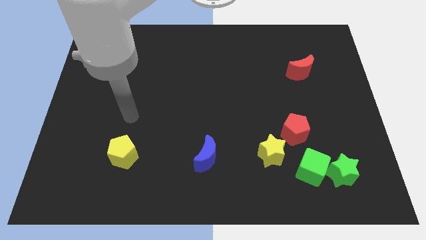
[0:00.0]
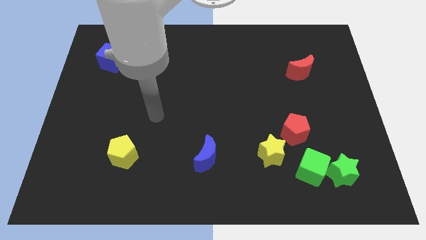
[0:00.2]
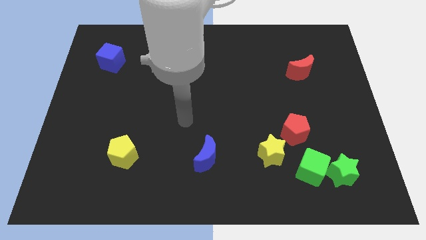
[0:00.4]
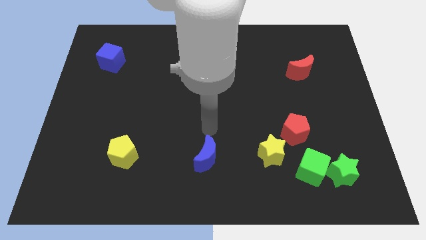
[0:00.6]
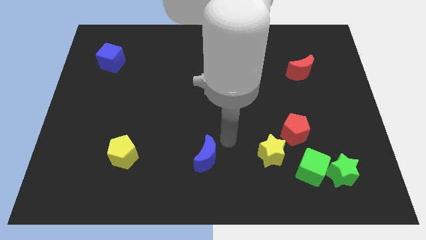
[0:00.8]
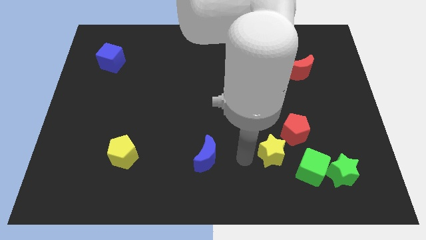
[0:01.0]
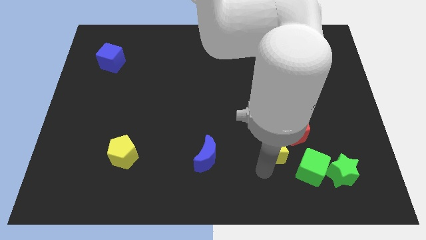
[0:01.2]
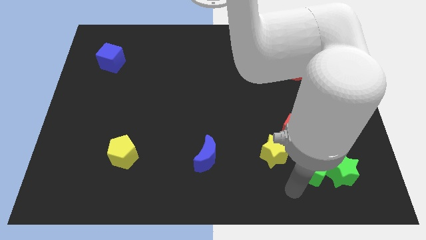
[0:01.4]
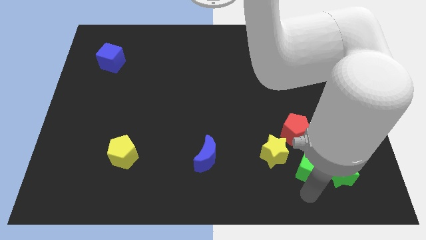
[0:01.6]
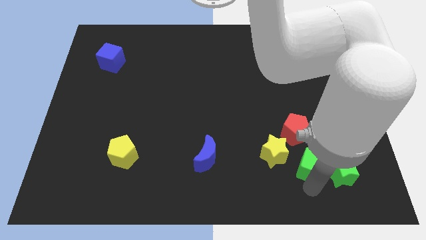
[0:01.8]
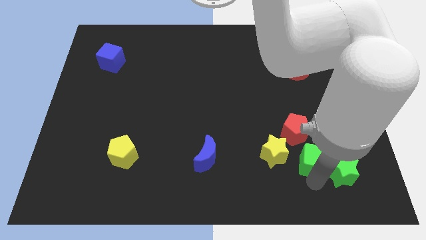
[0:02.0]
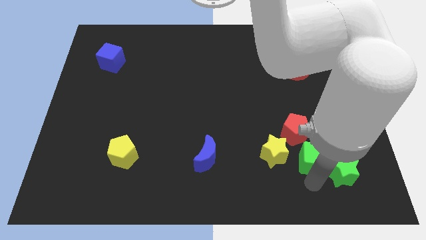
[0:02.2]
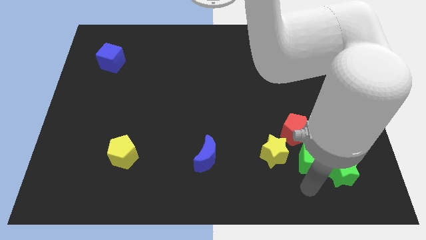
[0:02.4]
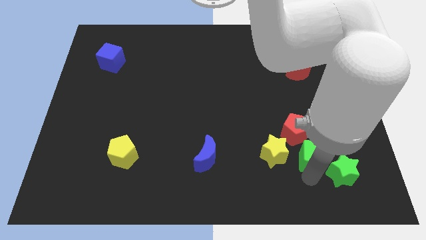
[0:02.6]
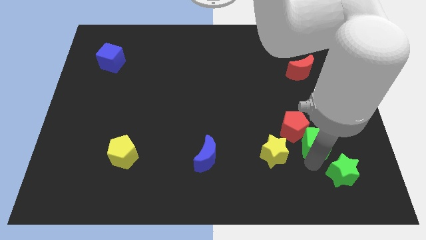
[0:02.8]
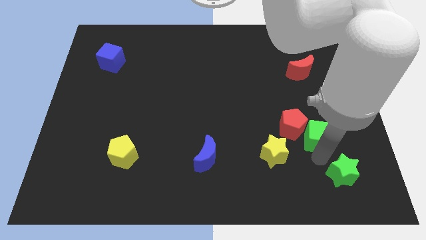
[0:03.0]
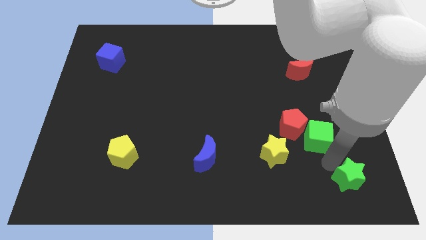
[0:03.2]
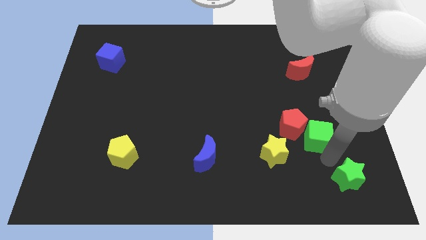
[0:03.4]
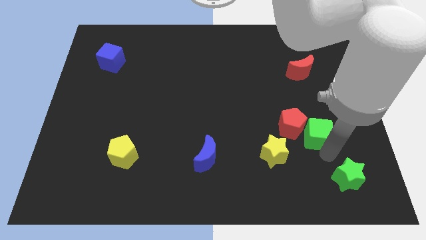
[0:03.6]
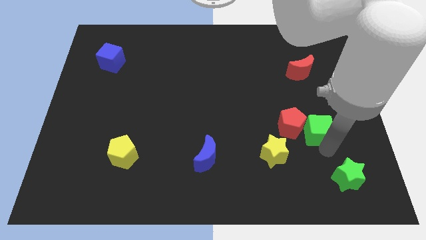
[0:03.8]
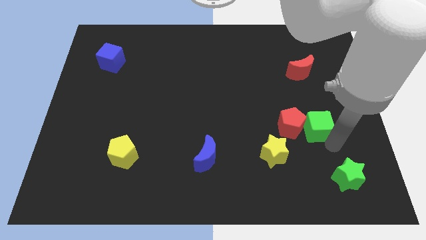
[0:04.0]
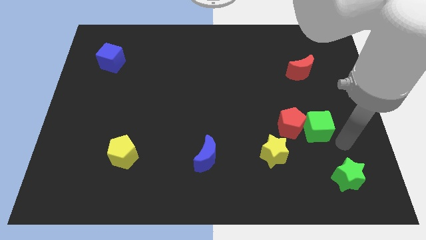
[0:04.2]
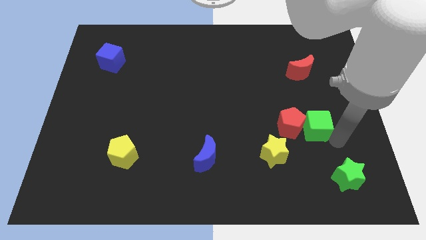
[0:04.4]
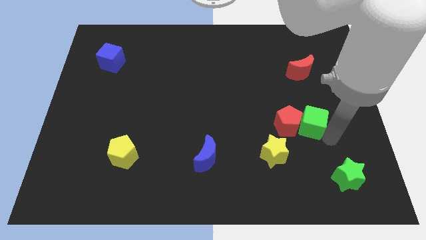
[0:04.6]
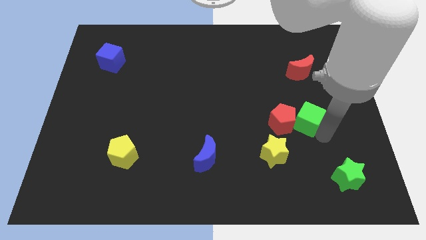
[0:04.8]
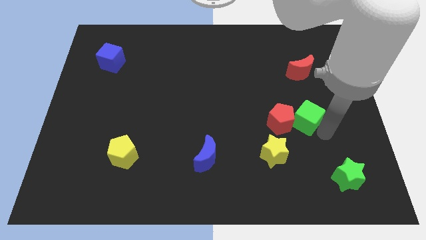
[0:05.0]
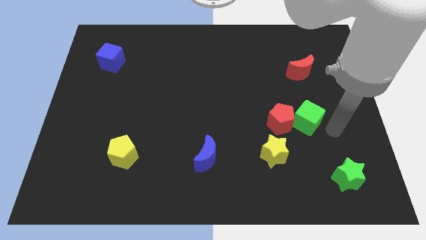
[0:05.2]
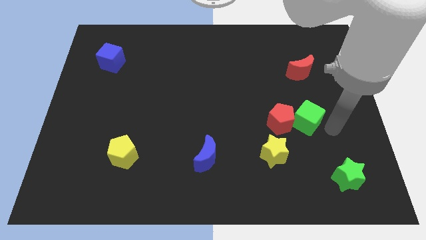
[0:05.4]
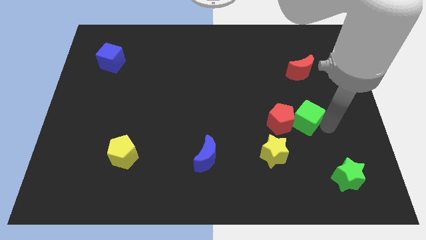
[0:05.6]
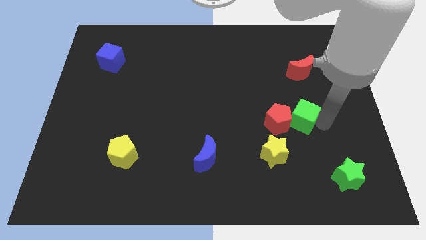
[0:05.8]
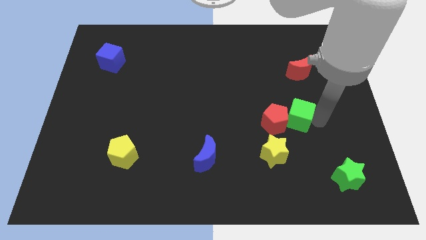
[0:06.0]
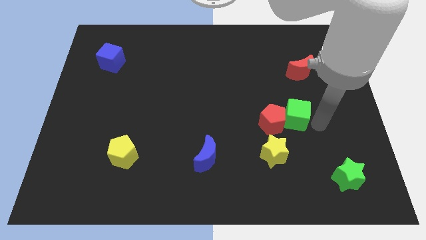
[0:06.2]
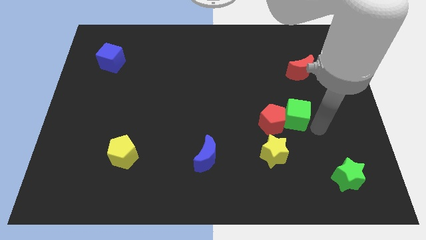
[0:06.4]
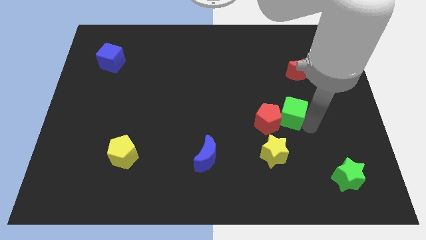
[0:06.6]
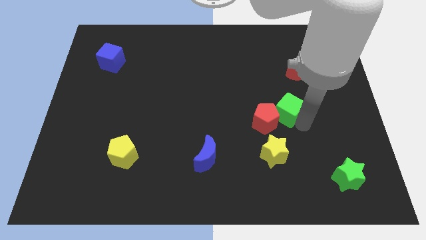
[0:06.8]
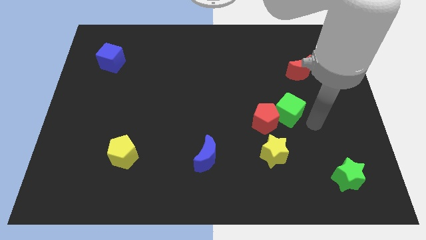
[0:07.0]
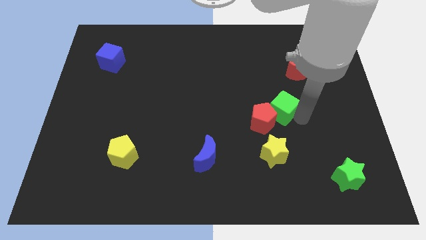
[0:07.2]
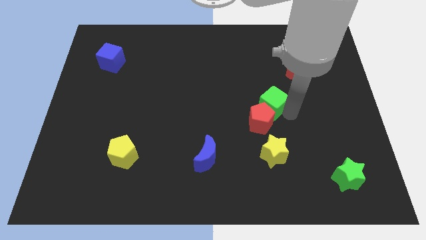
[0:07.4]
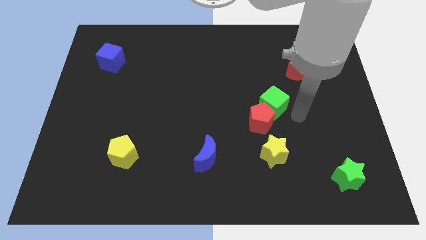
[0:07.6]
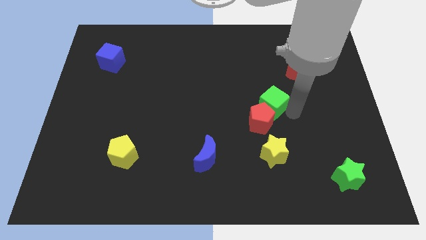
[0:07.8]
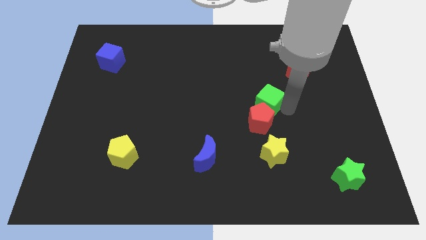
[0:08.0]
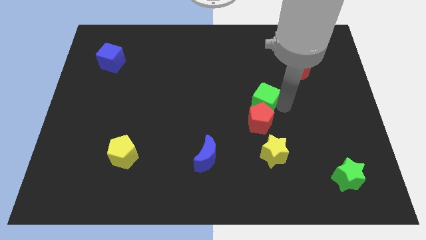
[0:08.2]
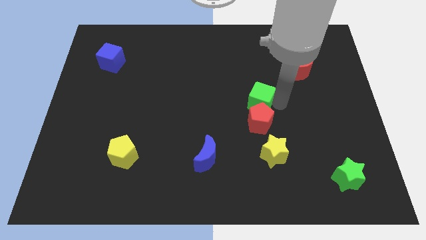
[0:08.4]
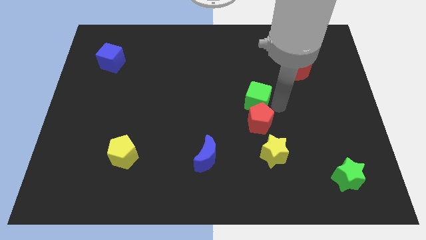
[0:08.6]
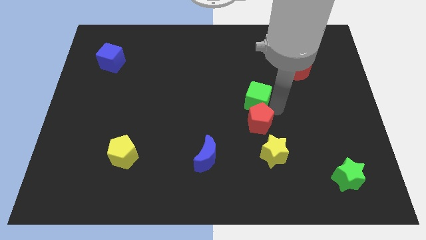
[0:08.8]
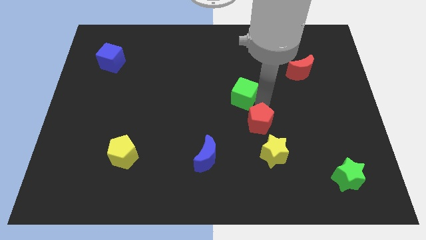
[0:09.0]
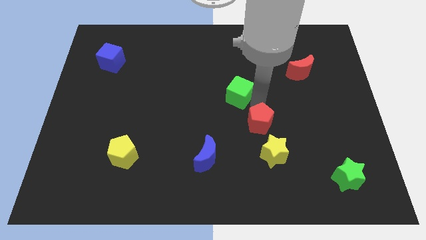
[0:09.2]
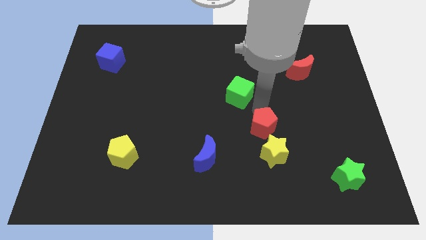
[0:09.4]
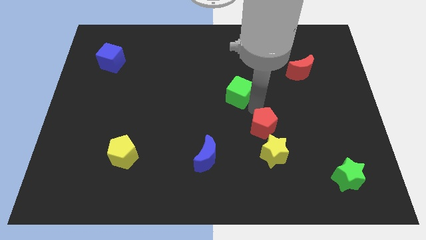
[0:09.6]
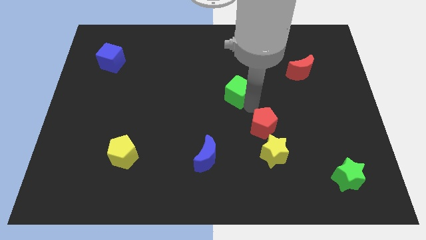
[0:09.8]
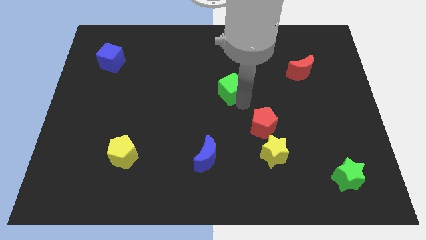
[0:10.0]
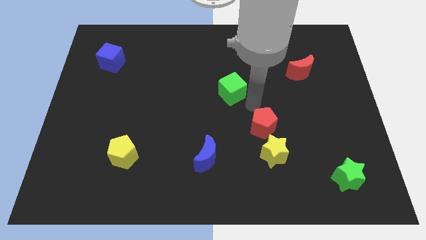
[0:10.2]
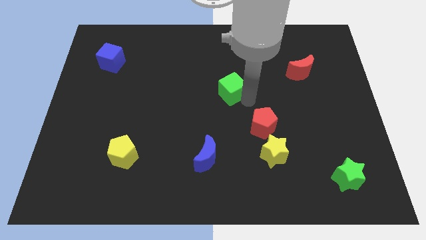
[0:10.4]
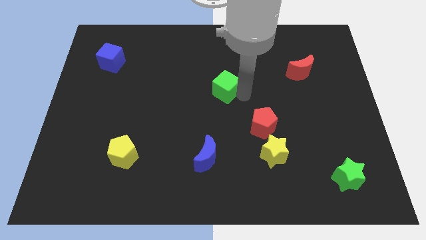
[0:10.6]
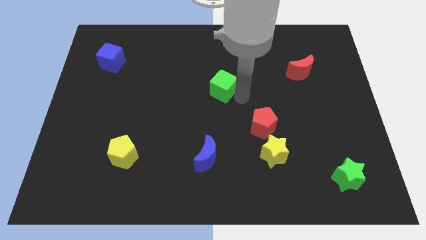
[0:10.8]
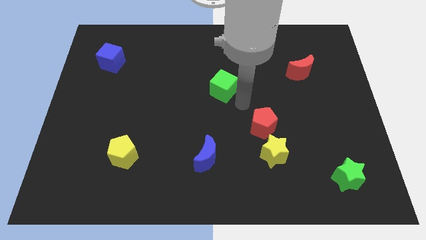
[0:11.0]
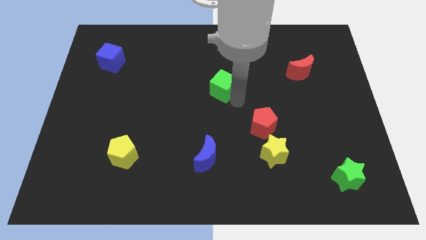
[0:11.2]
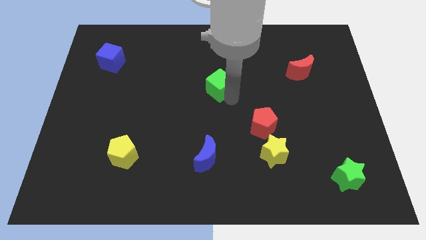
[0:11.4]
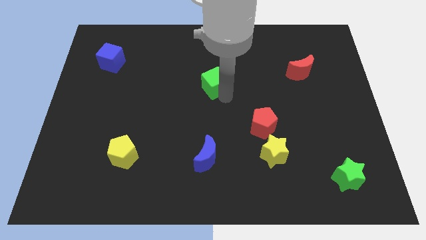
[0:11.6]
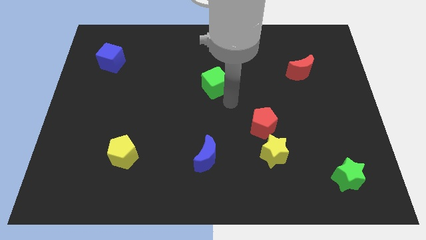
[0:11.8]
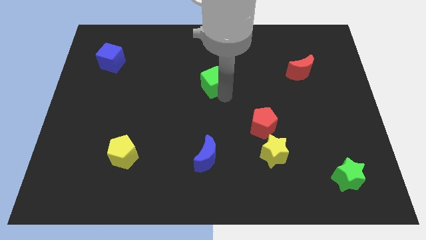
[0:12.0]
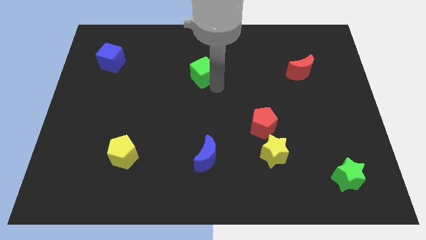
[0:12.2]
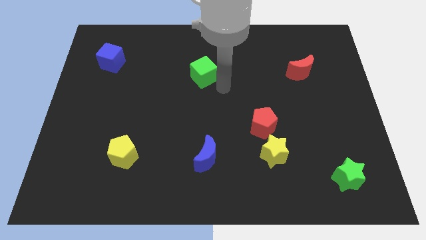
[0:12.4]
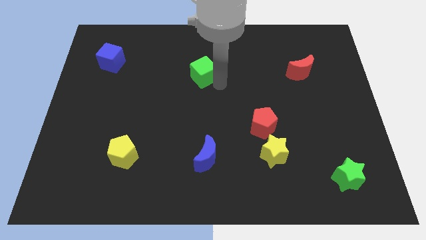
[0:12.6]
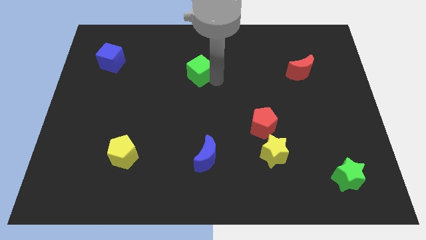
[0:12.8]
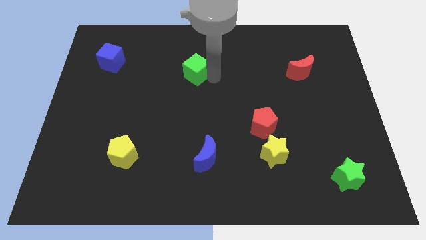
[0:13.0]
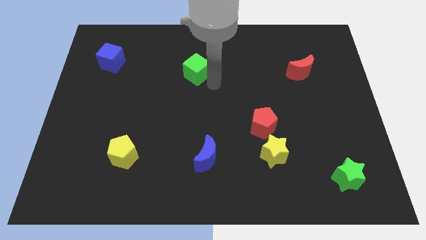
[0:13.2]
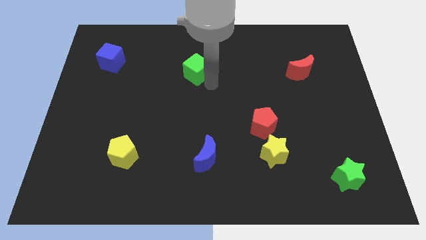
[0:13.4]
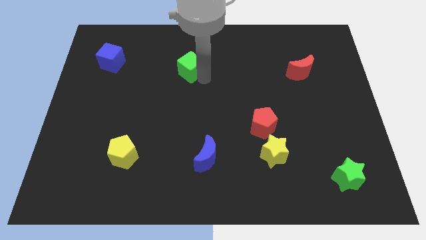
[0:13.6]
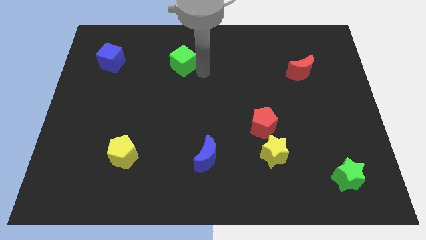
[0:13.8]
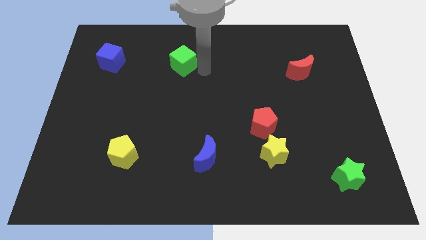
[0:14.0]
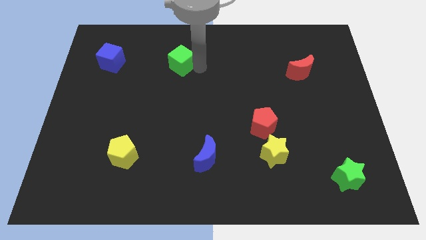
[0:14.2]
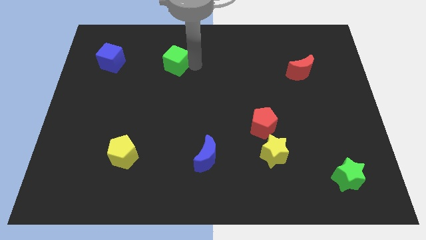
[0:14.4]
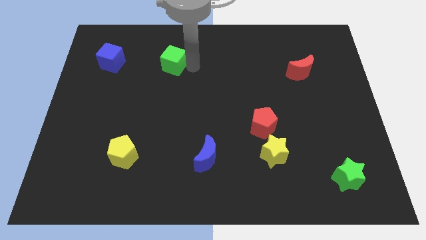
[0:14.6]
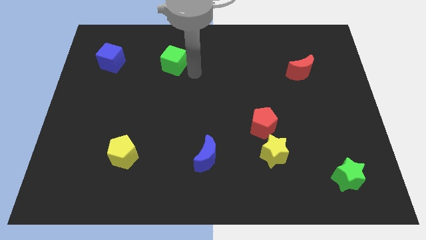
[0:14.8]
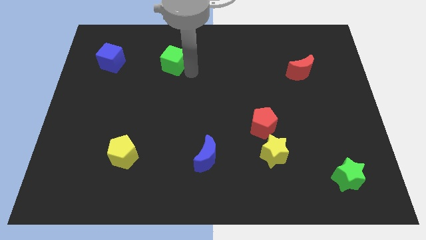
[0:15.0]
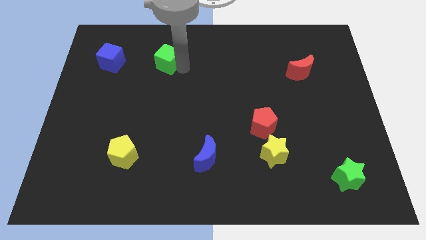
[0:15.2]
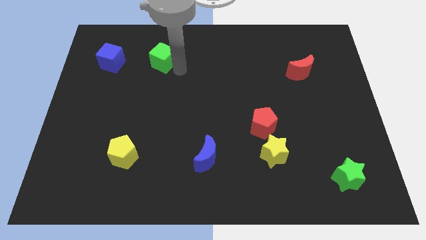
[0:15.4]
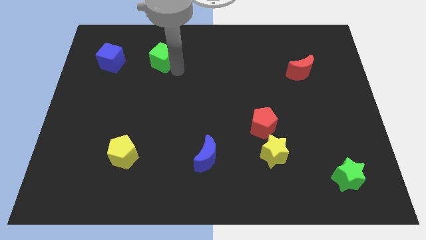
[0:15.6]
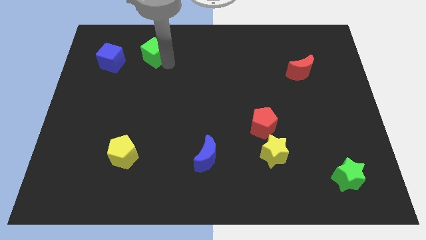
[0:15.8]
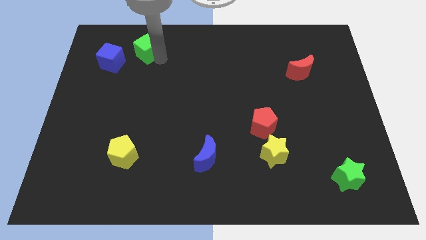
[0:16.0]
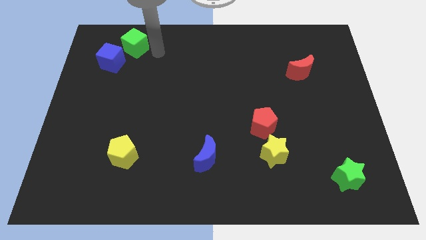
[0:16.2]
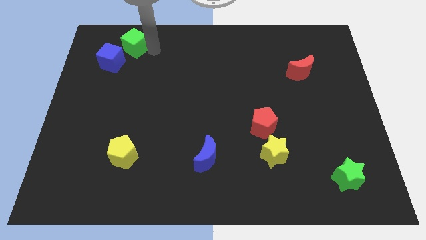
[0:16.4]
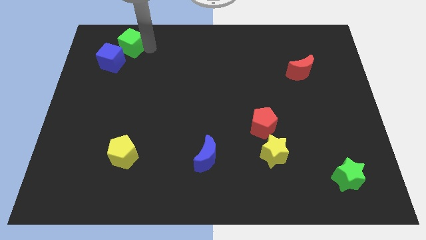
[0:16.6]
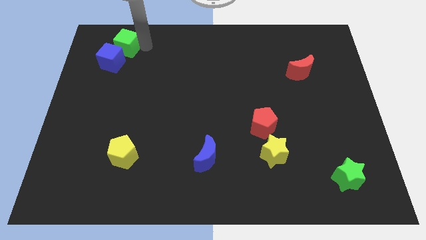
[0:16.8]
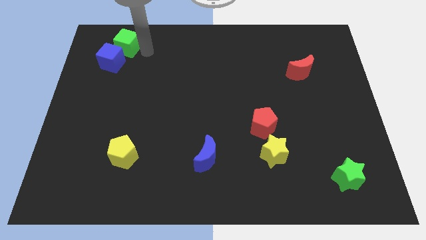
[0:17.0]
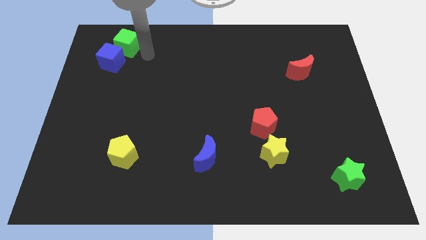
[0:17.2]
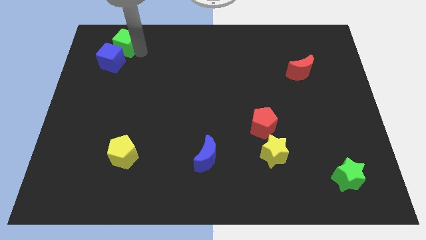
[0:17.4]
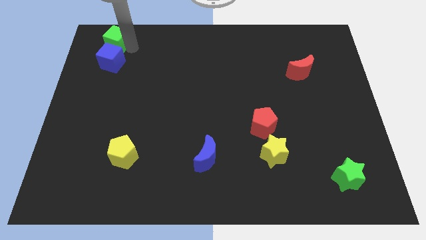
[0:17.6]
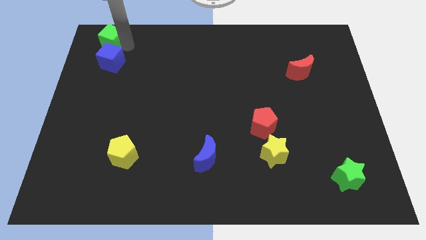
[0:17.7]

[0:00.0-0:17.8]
move the green cube to the top left
